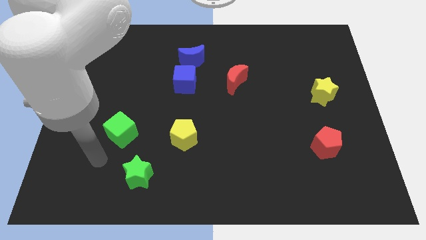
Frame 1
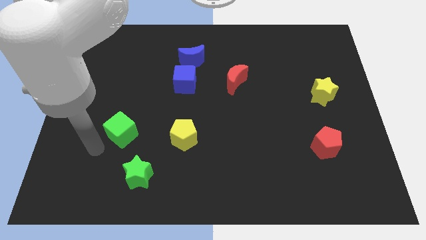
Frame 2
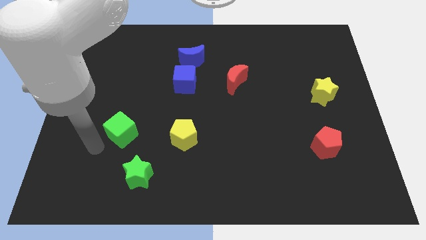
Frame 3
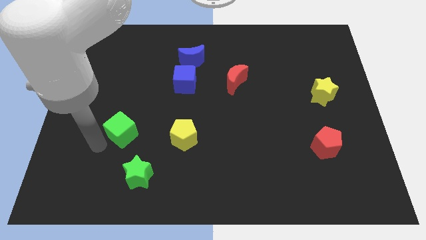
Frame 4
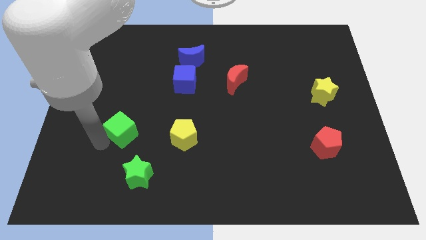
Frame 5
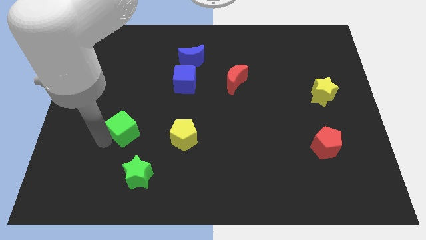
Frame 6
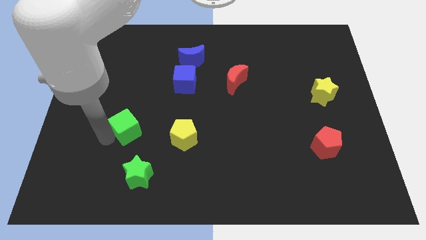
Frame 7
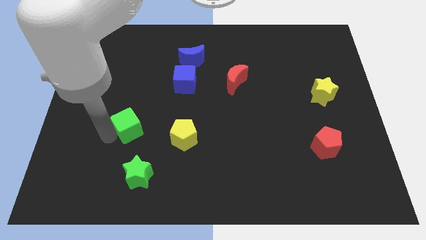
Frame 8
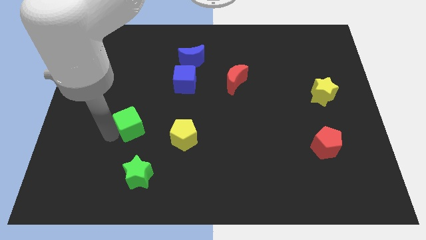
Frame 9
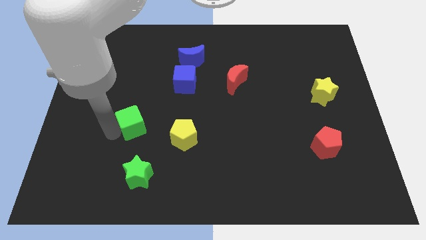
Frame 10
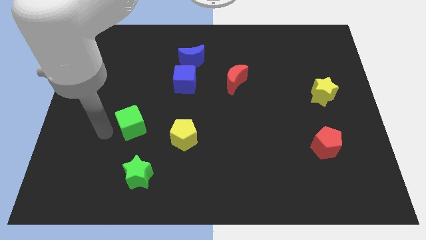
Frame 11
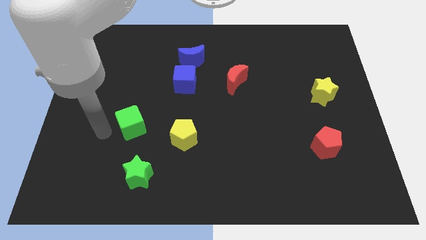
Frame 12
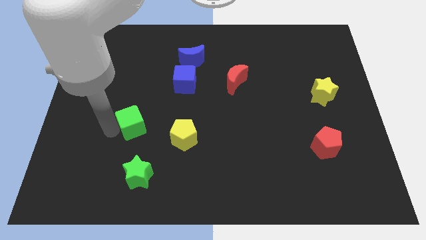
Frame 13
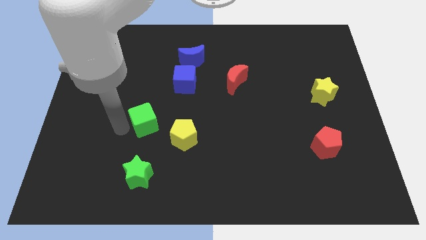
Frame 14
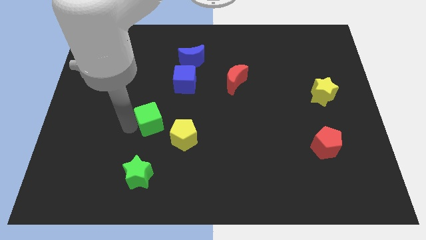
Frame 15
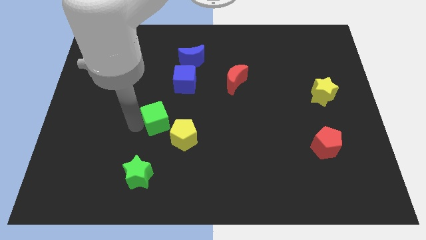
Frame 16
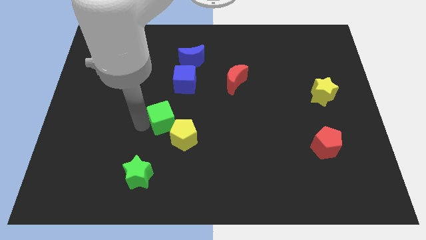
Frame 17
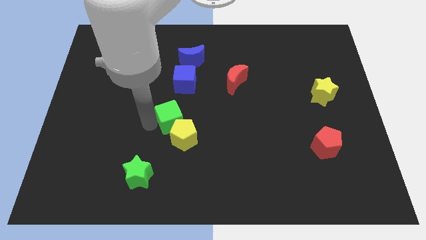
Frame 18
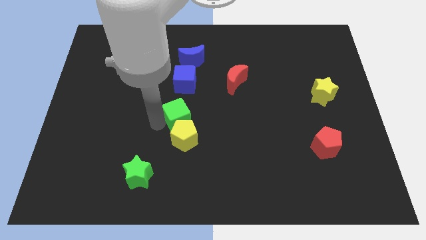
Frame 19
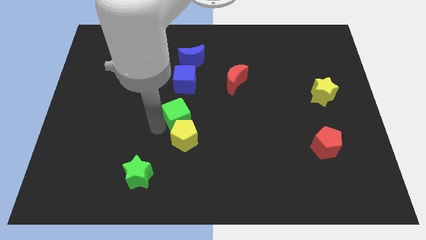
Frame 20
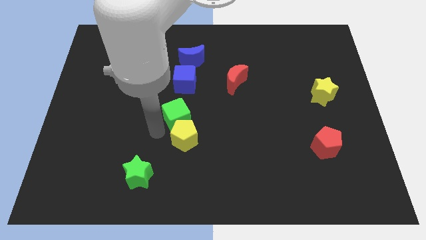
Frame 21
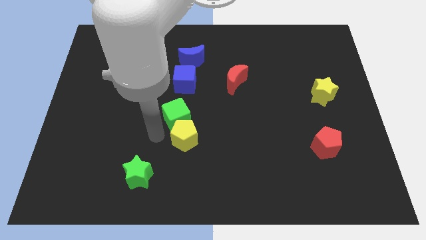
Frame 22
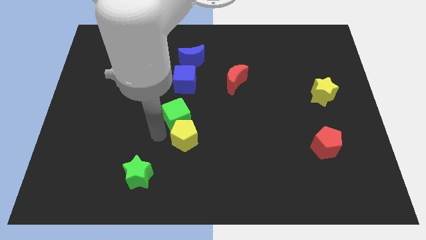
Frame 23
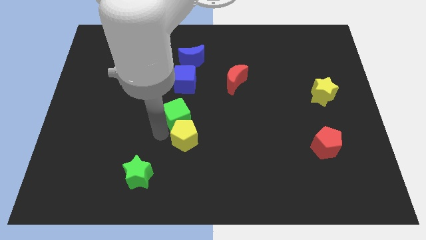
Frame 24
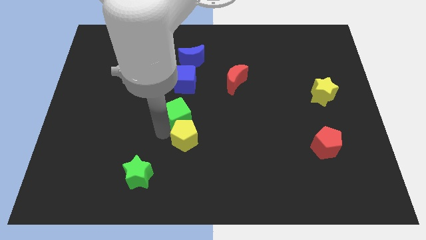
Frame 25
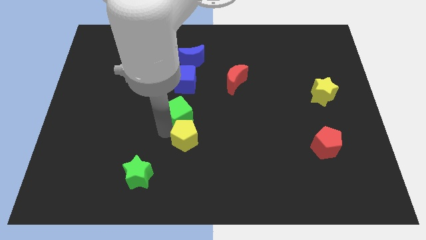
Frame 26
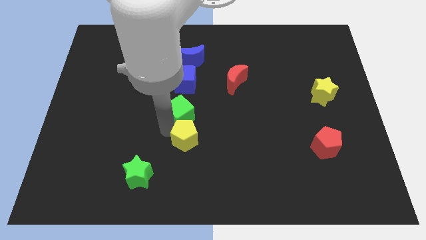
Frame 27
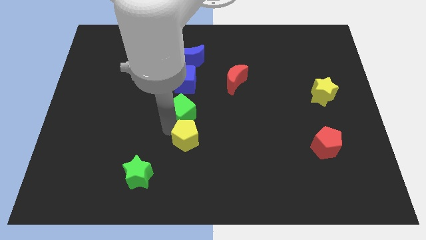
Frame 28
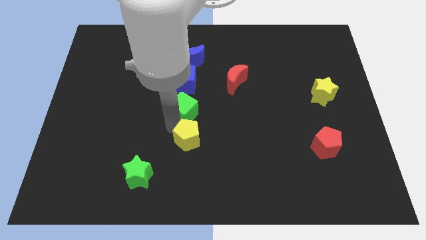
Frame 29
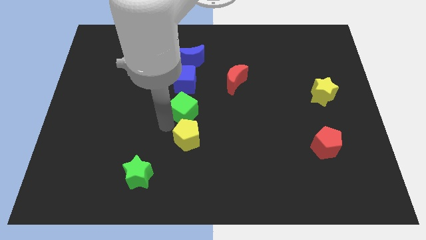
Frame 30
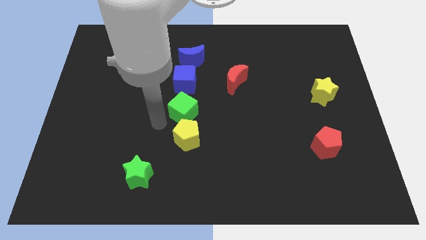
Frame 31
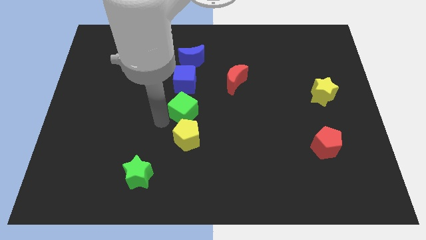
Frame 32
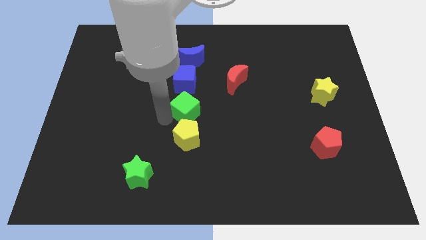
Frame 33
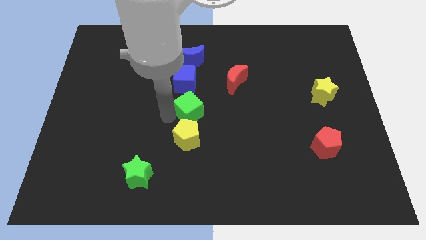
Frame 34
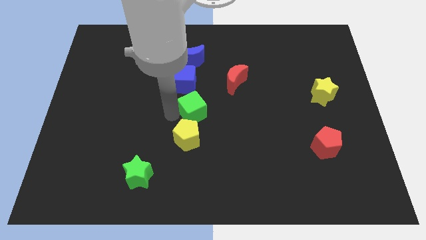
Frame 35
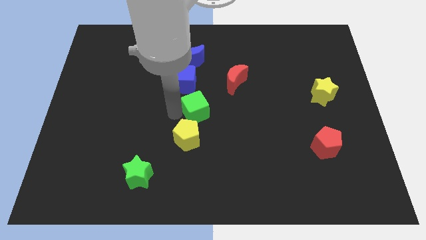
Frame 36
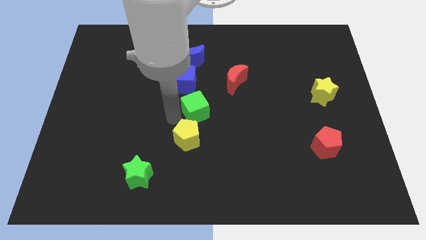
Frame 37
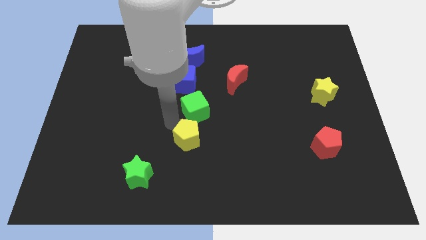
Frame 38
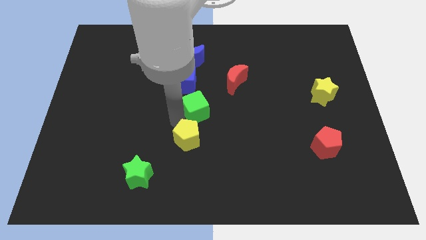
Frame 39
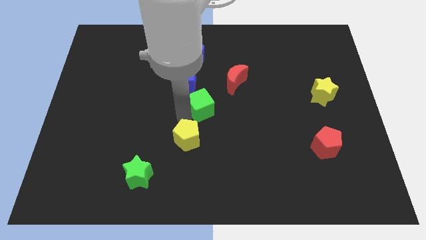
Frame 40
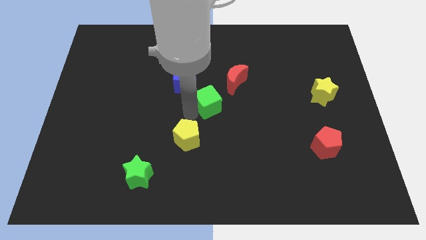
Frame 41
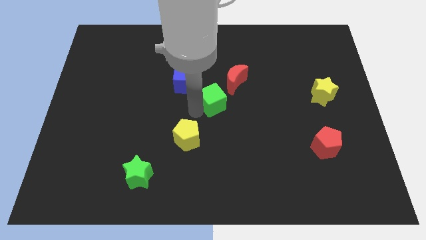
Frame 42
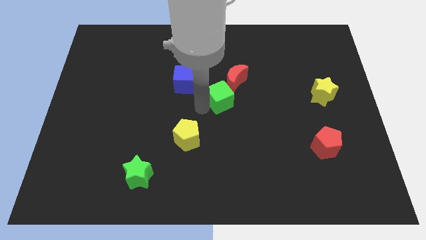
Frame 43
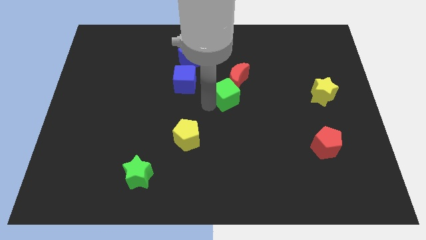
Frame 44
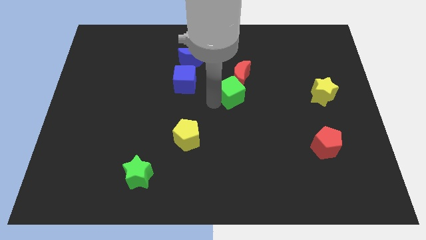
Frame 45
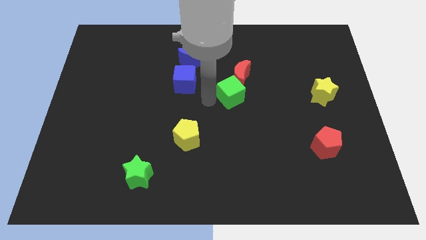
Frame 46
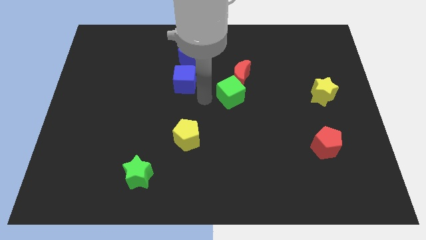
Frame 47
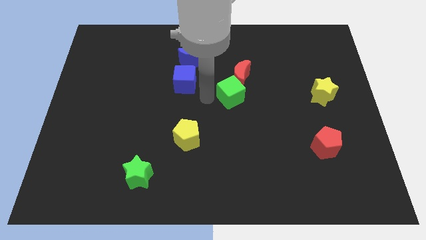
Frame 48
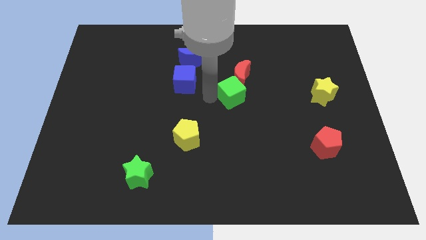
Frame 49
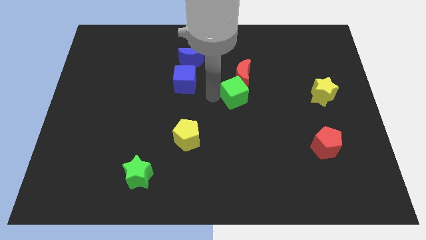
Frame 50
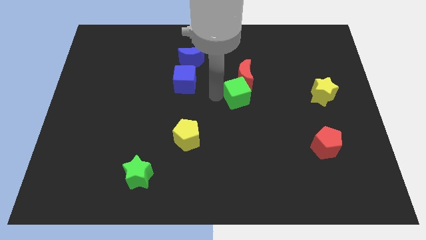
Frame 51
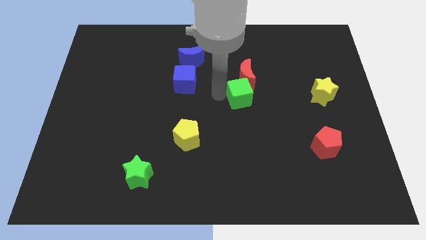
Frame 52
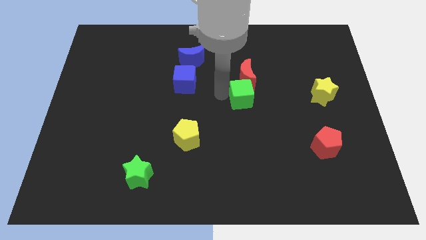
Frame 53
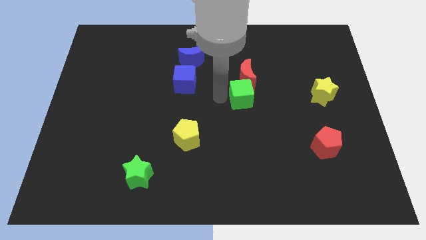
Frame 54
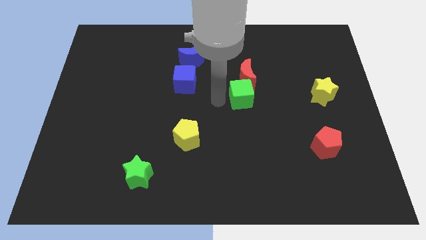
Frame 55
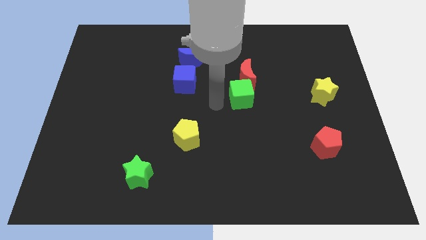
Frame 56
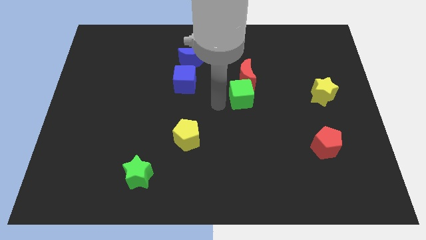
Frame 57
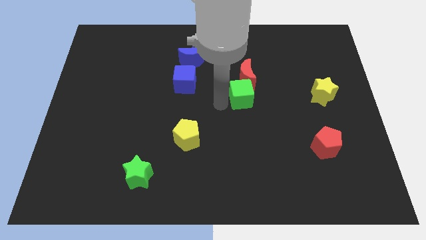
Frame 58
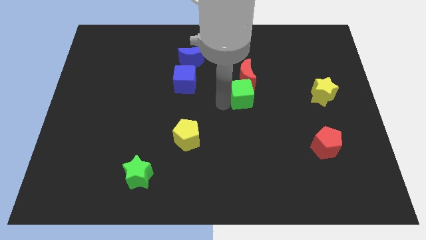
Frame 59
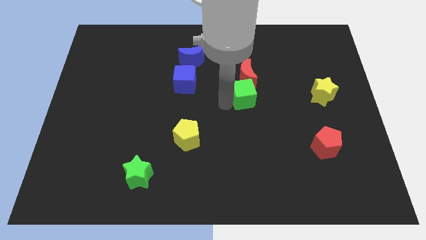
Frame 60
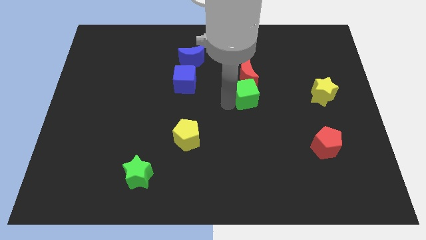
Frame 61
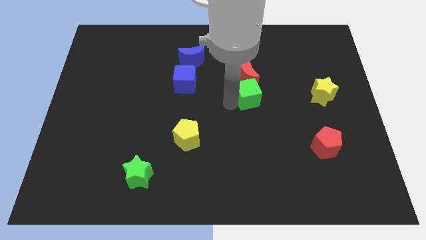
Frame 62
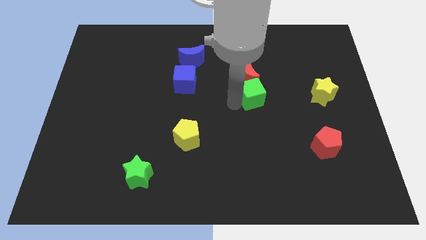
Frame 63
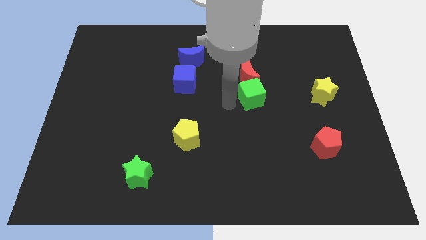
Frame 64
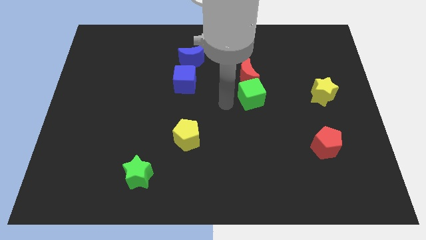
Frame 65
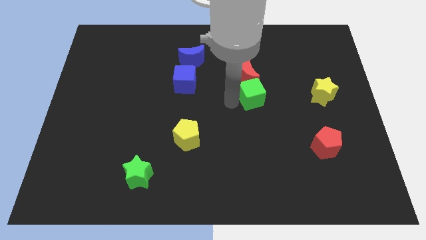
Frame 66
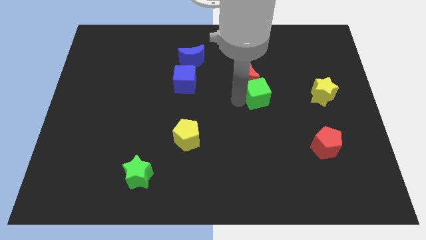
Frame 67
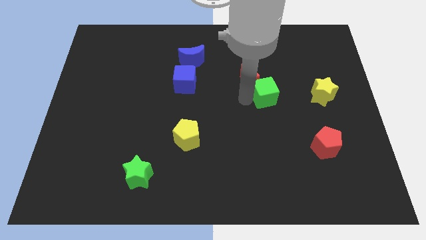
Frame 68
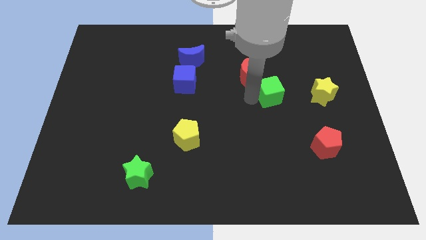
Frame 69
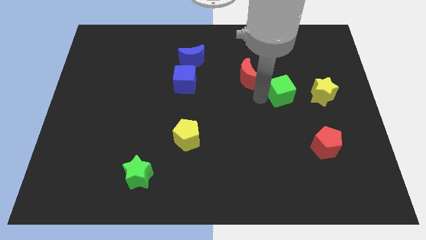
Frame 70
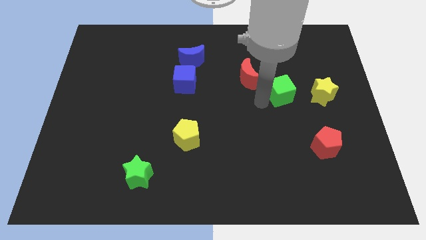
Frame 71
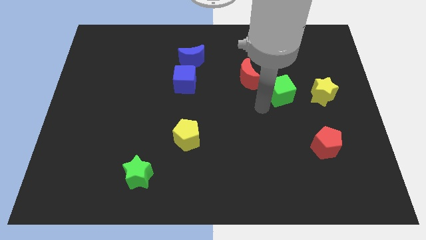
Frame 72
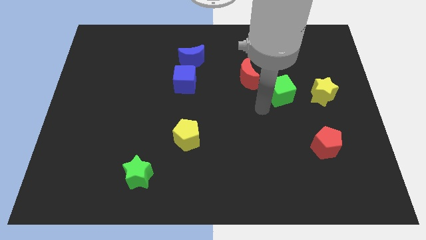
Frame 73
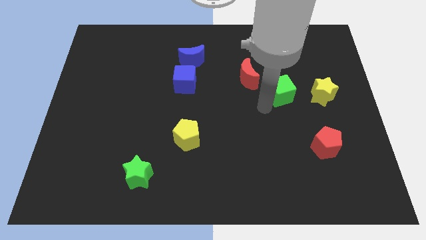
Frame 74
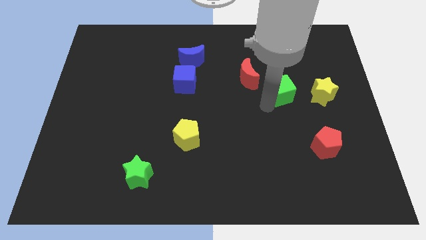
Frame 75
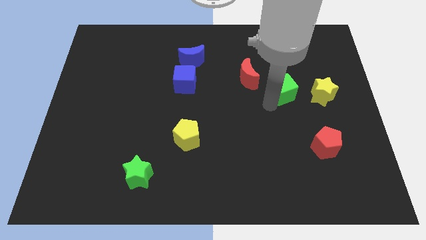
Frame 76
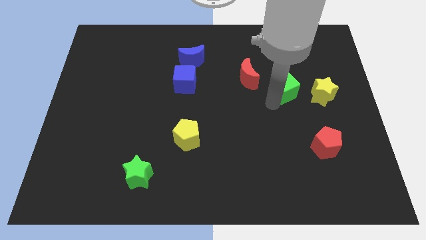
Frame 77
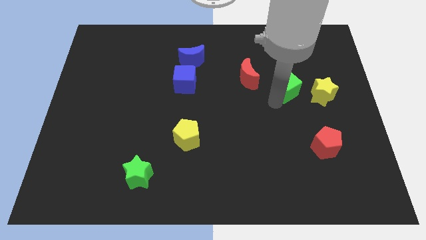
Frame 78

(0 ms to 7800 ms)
push the green cube diagonally up and to the left of the yellow star
